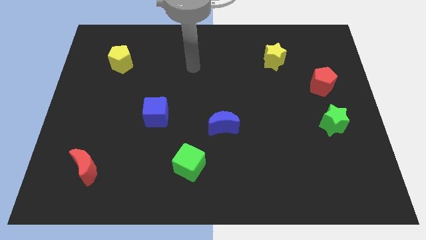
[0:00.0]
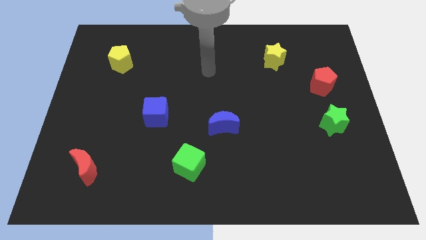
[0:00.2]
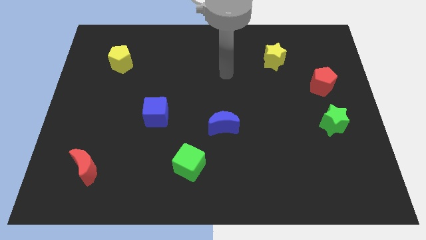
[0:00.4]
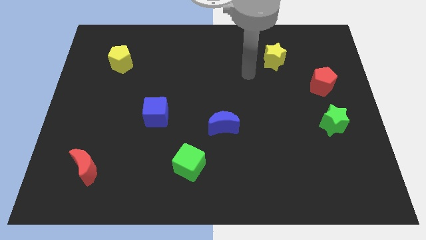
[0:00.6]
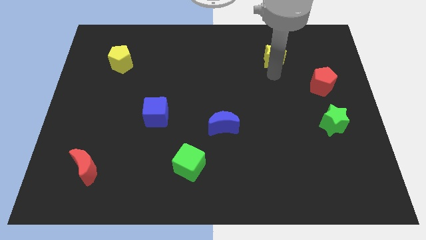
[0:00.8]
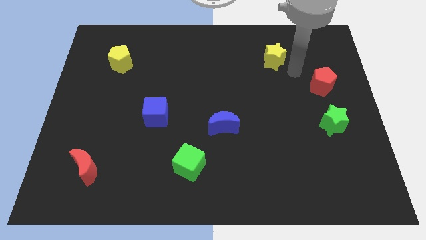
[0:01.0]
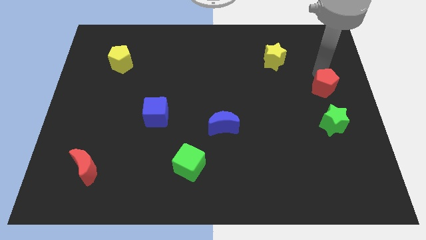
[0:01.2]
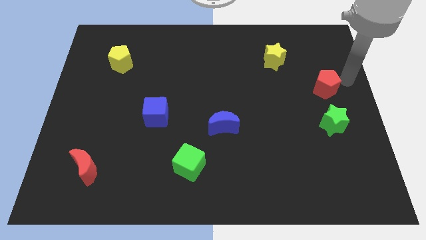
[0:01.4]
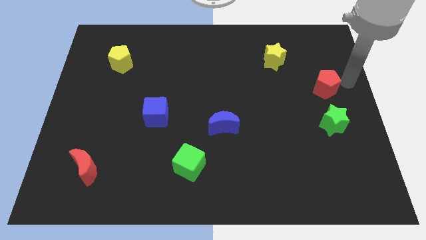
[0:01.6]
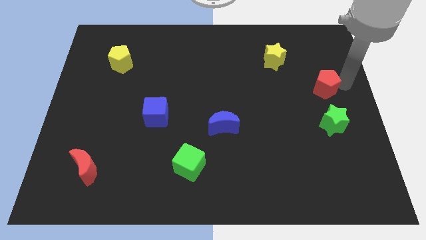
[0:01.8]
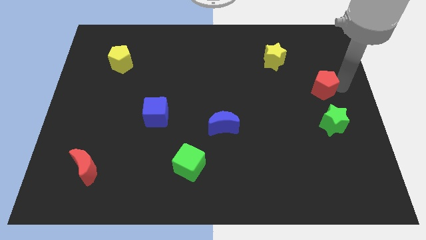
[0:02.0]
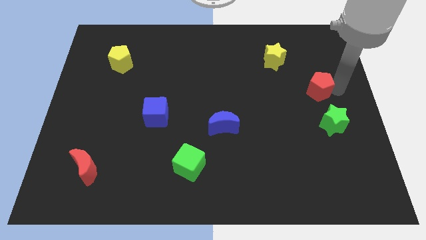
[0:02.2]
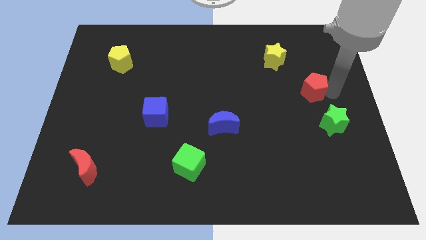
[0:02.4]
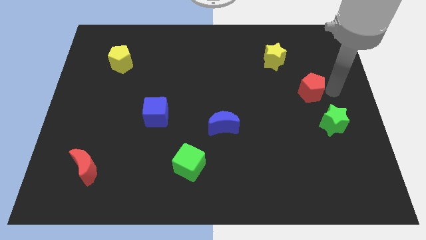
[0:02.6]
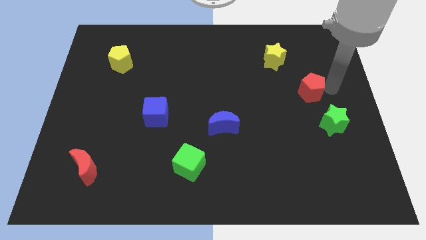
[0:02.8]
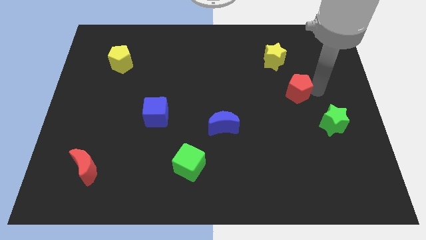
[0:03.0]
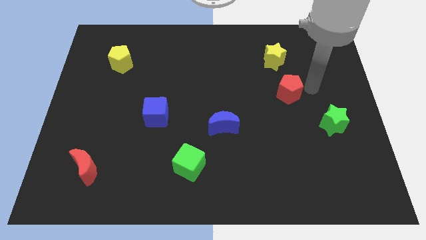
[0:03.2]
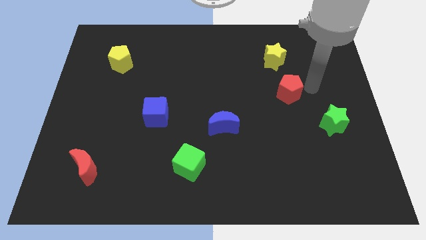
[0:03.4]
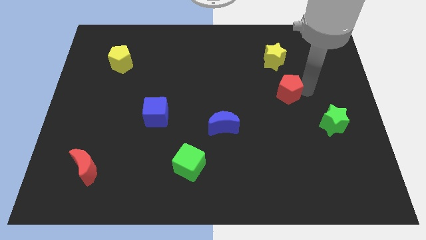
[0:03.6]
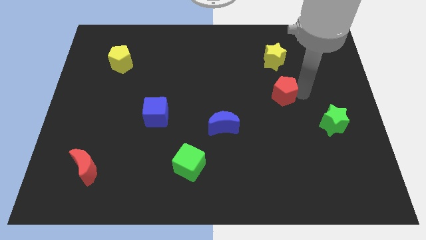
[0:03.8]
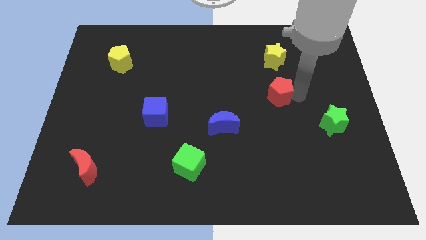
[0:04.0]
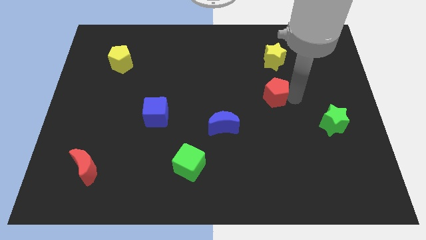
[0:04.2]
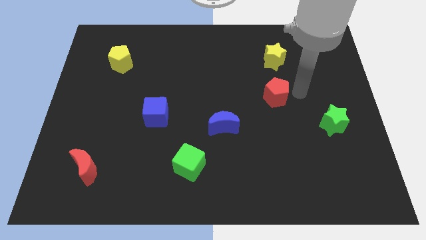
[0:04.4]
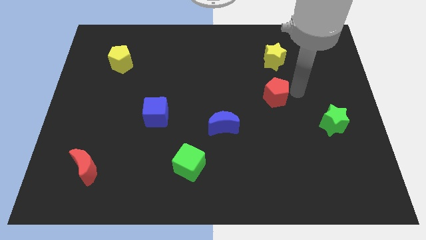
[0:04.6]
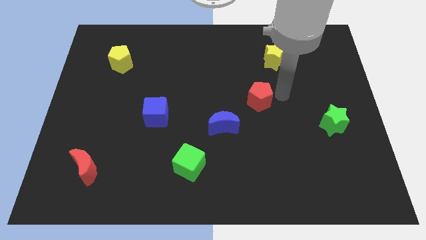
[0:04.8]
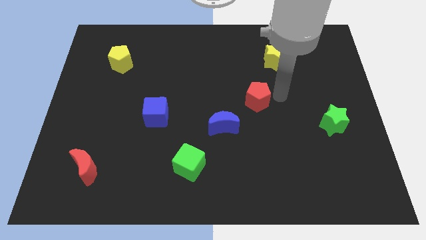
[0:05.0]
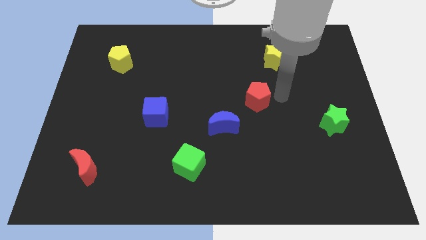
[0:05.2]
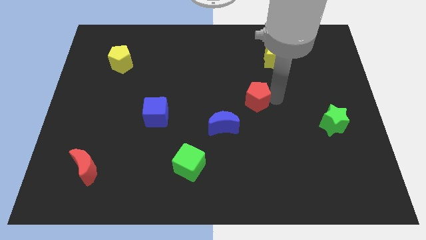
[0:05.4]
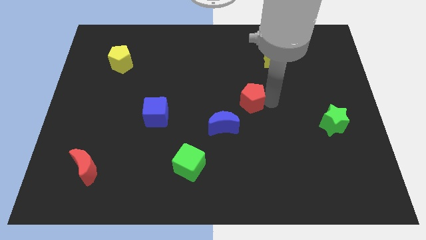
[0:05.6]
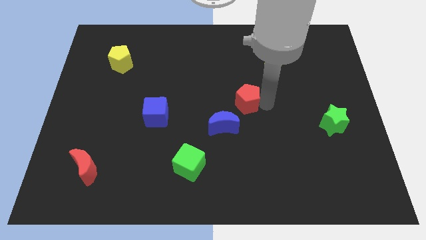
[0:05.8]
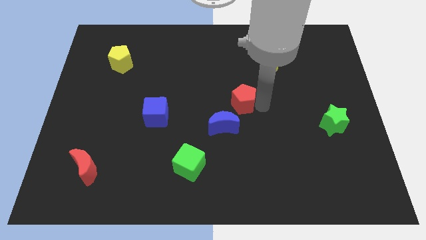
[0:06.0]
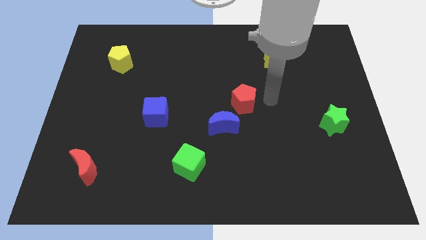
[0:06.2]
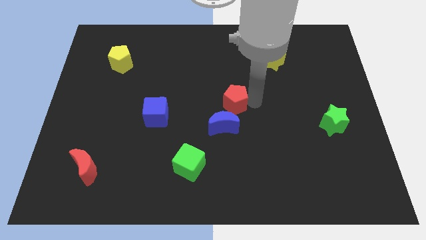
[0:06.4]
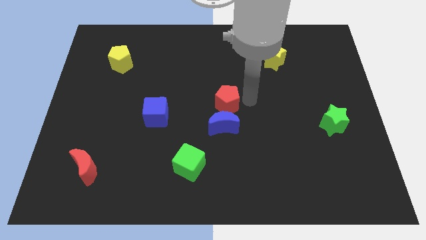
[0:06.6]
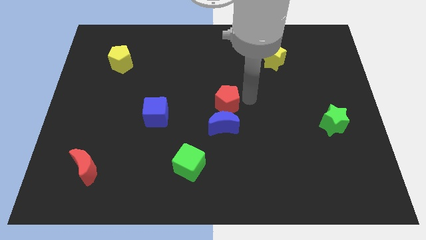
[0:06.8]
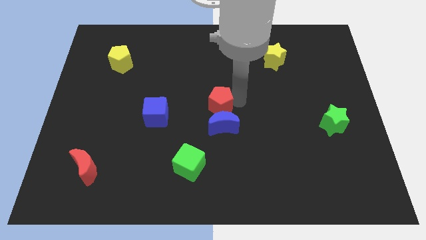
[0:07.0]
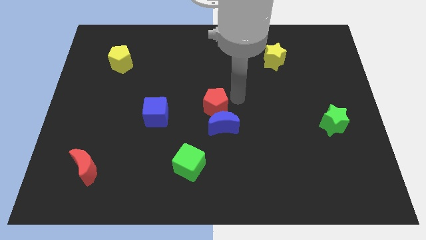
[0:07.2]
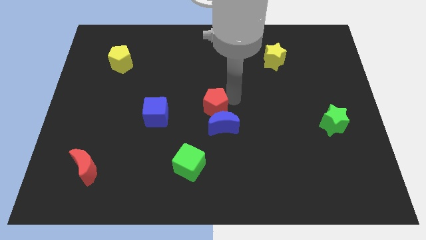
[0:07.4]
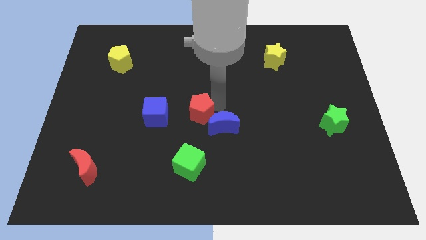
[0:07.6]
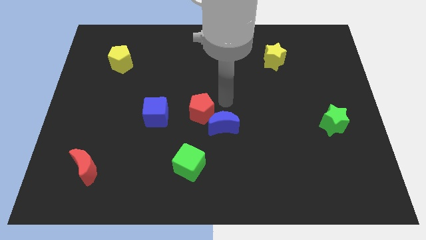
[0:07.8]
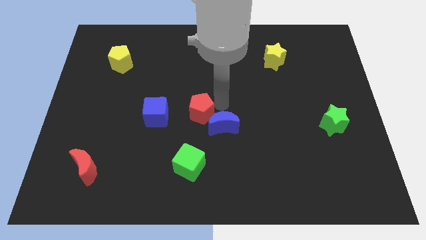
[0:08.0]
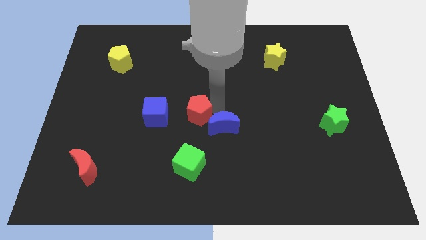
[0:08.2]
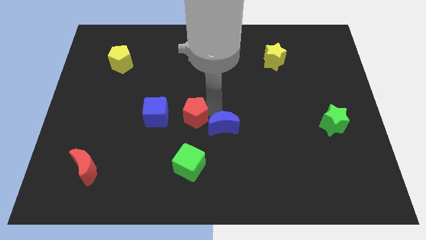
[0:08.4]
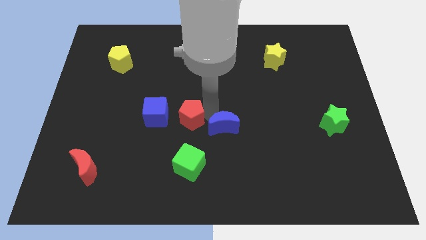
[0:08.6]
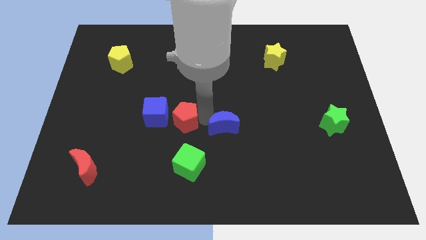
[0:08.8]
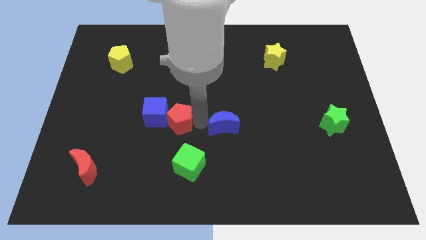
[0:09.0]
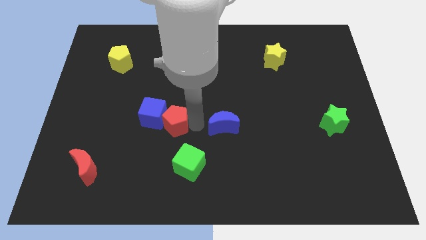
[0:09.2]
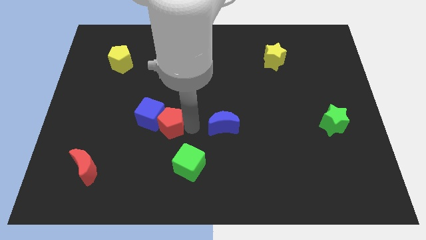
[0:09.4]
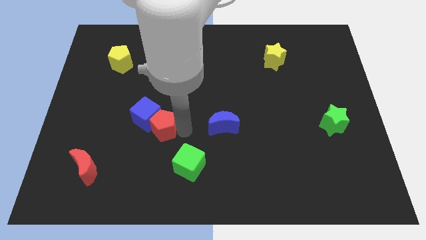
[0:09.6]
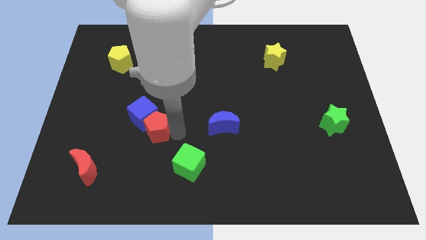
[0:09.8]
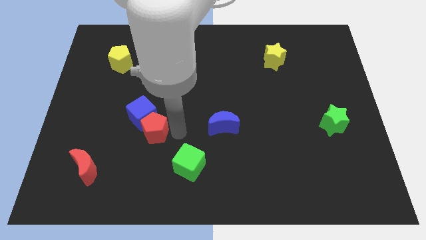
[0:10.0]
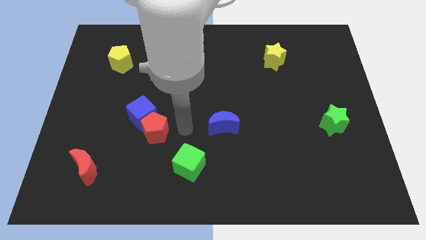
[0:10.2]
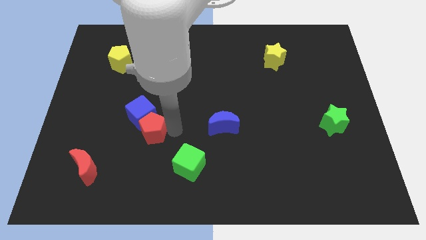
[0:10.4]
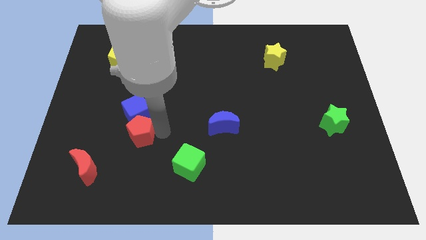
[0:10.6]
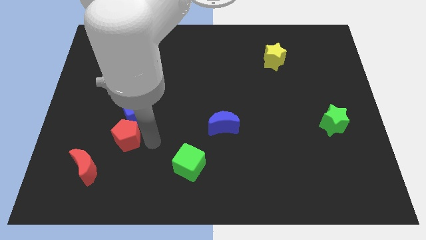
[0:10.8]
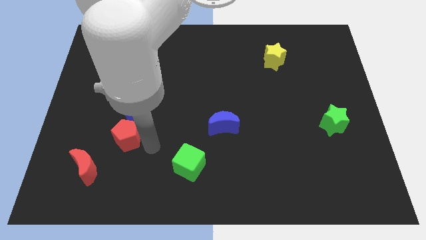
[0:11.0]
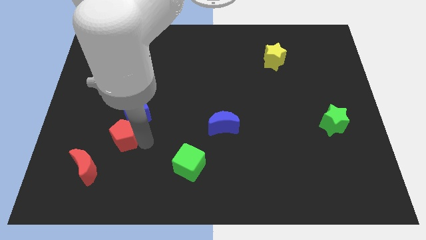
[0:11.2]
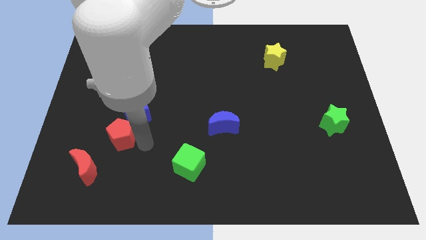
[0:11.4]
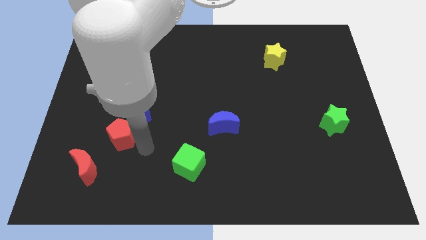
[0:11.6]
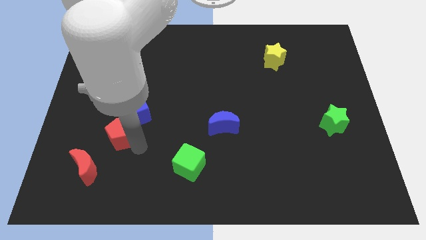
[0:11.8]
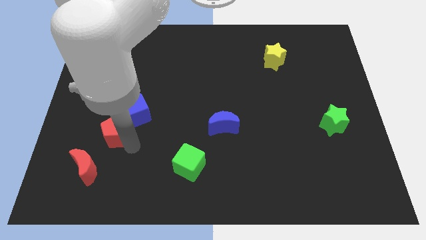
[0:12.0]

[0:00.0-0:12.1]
push the red pentagon above the red moon

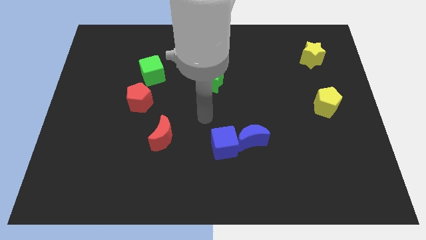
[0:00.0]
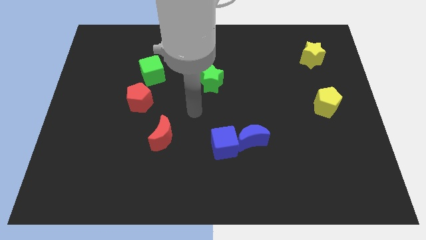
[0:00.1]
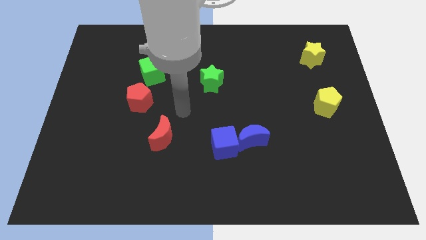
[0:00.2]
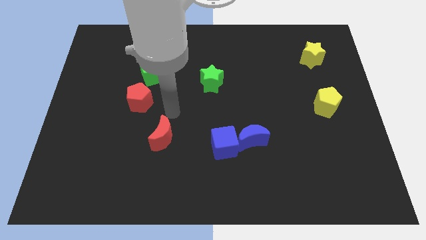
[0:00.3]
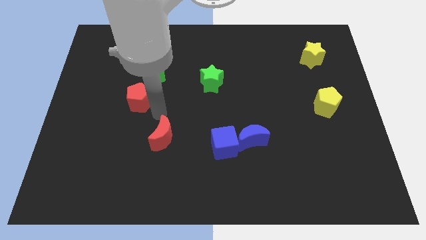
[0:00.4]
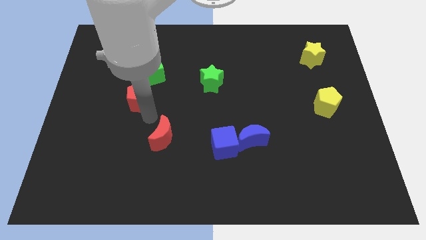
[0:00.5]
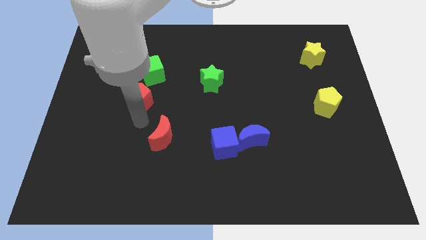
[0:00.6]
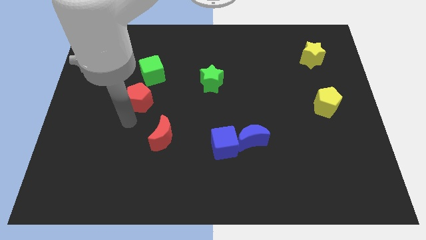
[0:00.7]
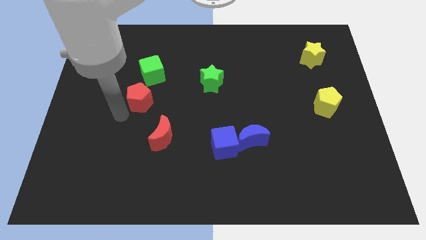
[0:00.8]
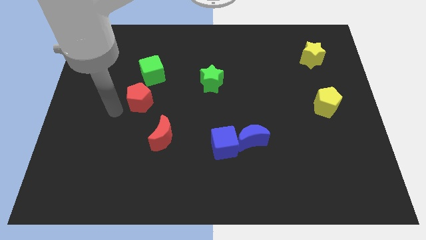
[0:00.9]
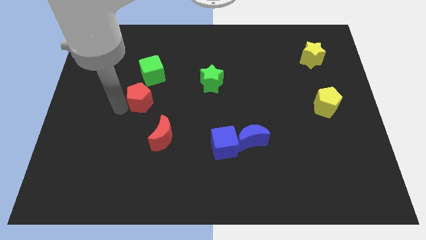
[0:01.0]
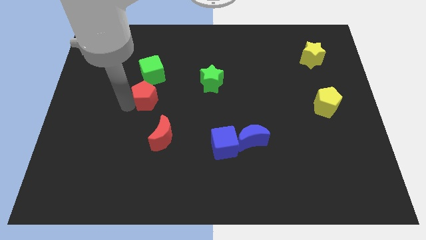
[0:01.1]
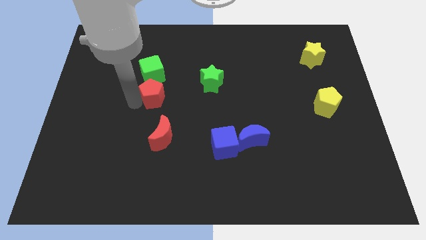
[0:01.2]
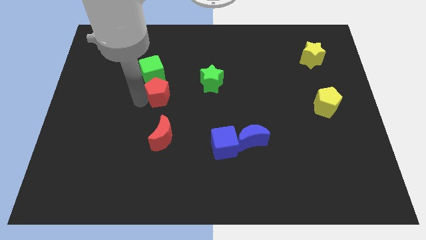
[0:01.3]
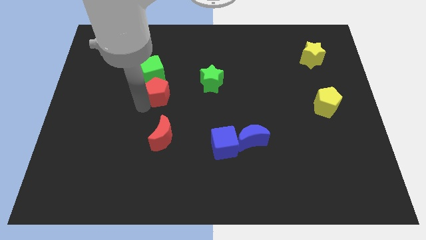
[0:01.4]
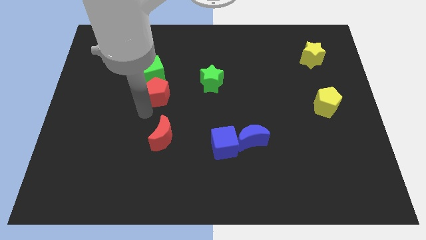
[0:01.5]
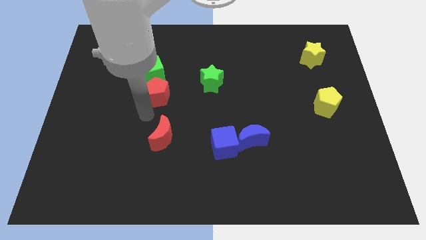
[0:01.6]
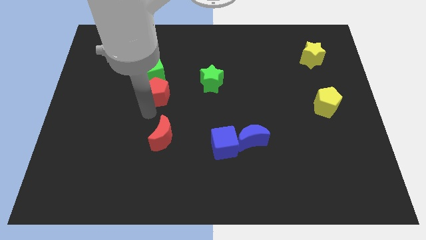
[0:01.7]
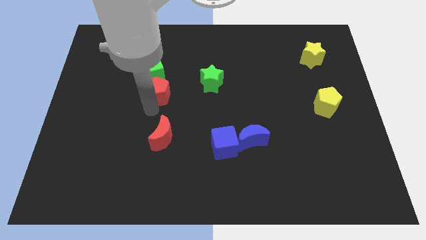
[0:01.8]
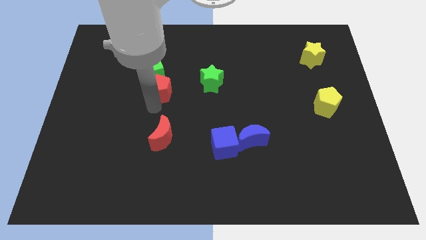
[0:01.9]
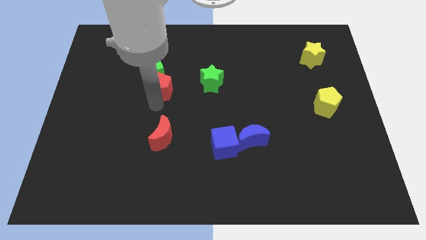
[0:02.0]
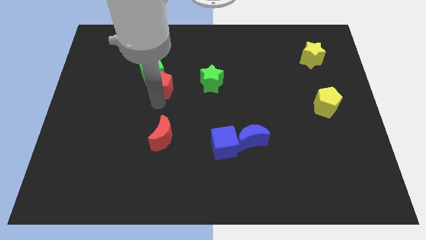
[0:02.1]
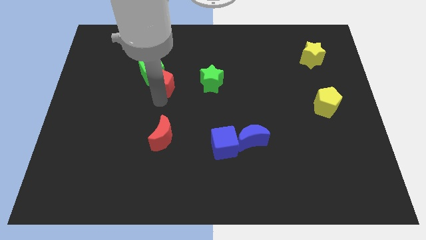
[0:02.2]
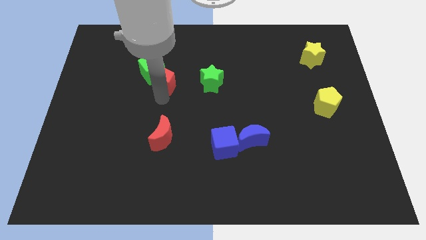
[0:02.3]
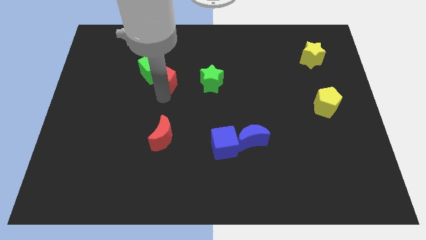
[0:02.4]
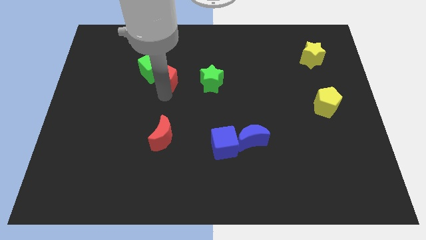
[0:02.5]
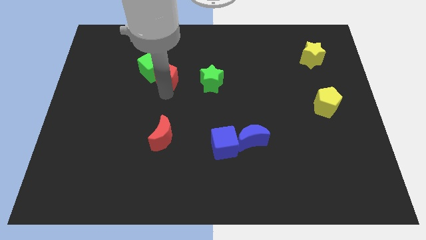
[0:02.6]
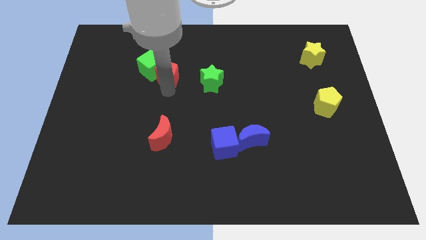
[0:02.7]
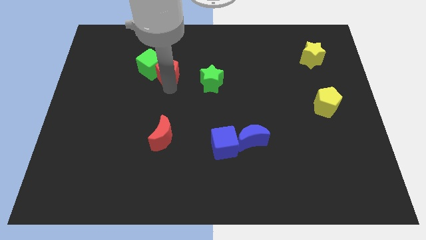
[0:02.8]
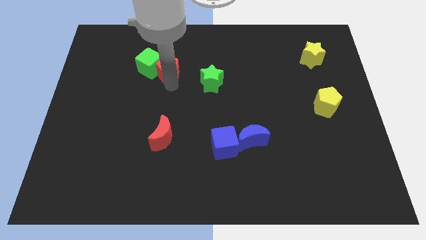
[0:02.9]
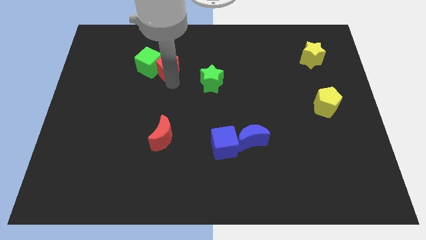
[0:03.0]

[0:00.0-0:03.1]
move the red pentagon to the top right side of the green cube
